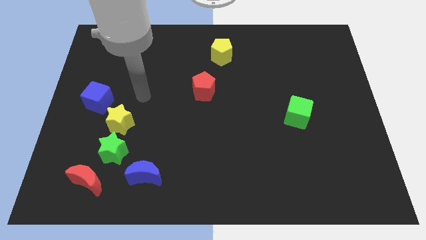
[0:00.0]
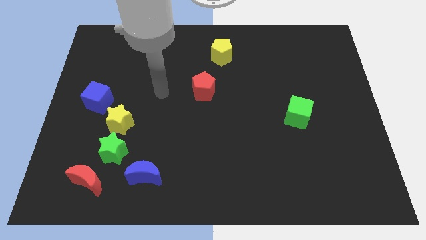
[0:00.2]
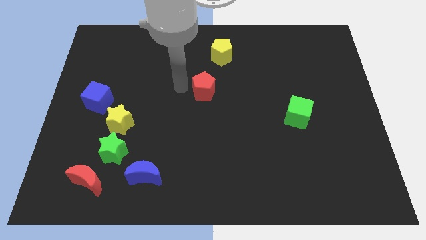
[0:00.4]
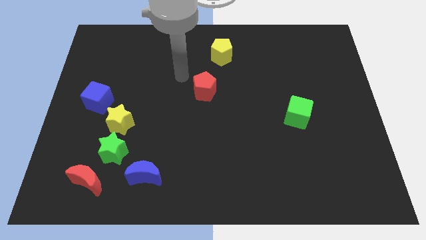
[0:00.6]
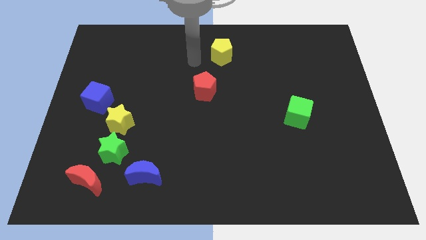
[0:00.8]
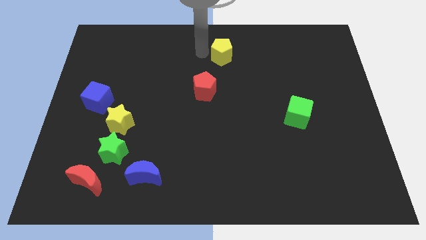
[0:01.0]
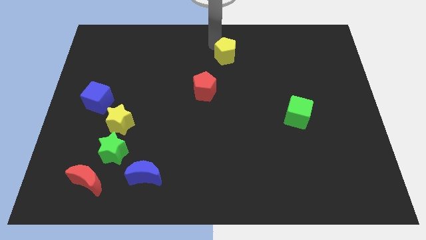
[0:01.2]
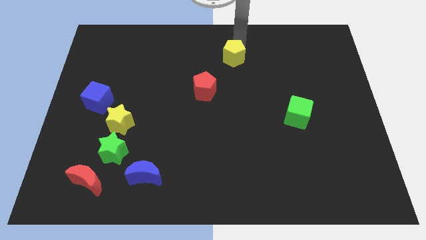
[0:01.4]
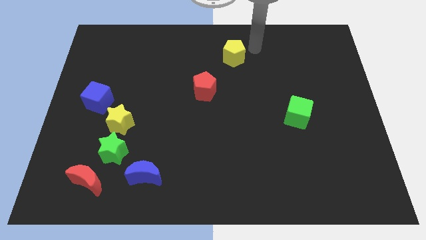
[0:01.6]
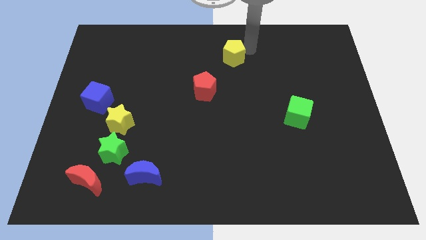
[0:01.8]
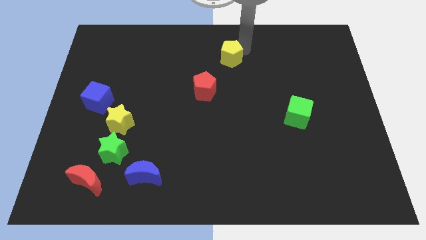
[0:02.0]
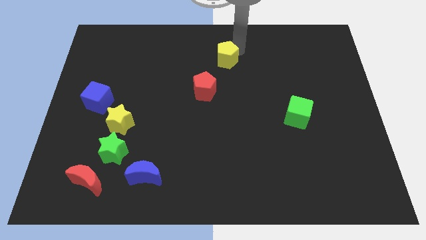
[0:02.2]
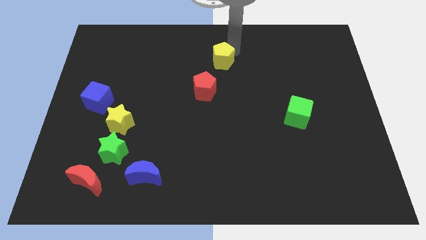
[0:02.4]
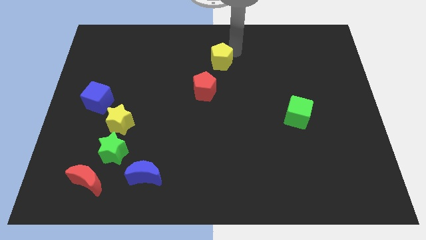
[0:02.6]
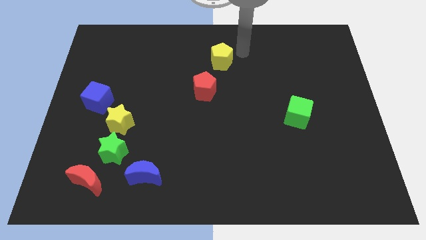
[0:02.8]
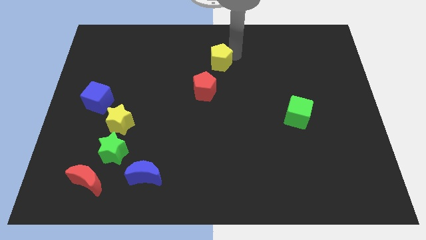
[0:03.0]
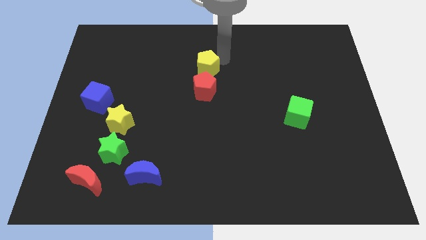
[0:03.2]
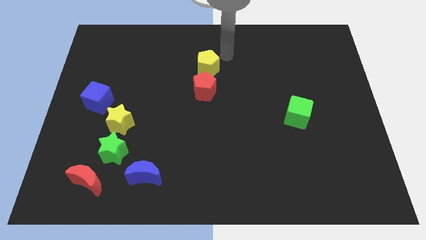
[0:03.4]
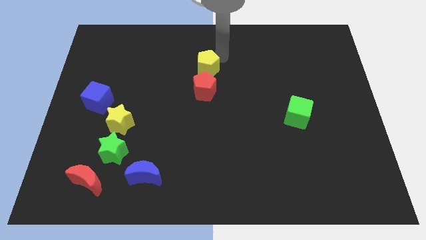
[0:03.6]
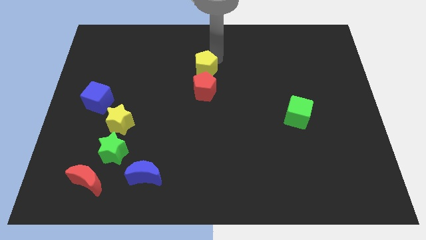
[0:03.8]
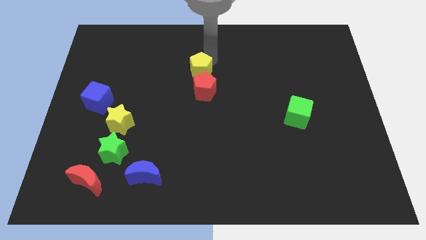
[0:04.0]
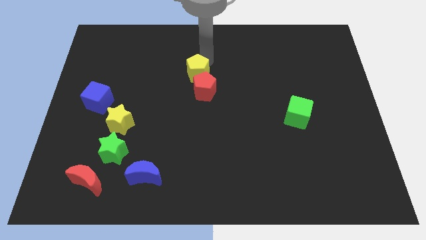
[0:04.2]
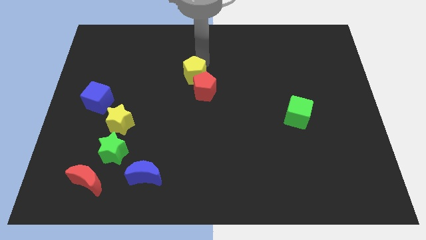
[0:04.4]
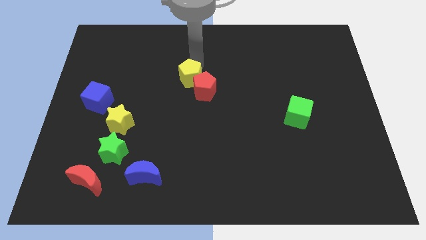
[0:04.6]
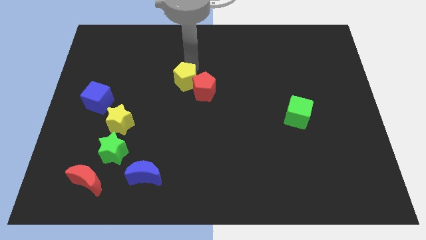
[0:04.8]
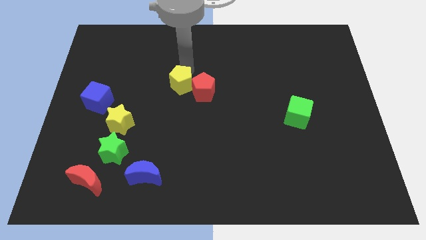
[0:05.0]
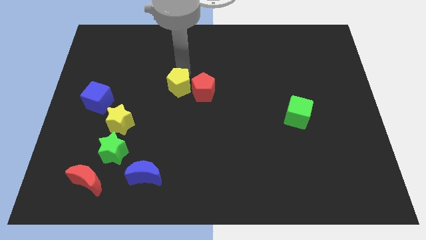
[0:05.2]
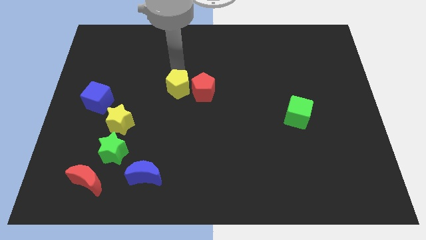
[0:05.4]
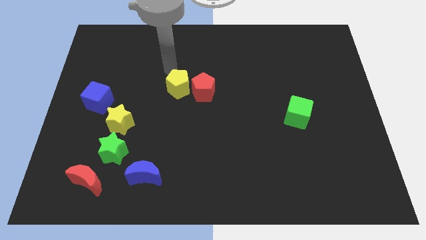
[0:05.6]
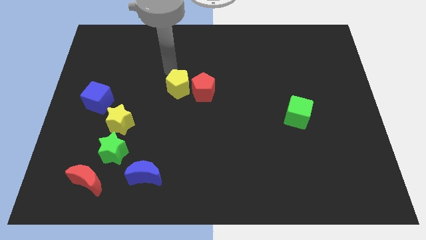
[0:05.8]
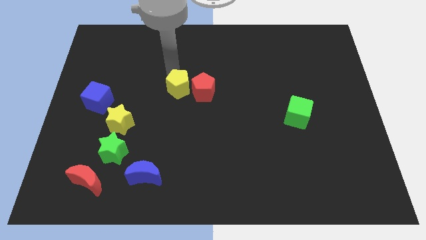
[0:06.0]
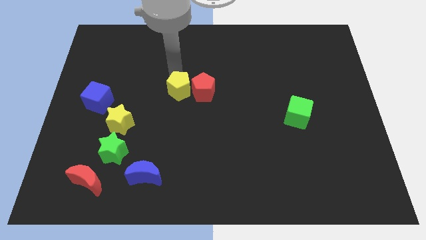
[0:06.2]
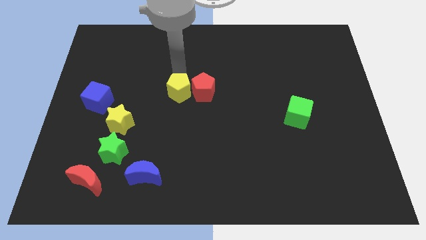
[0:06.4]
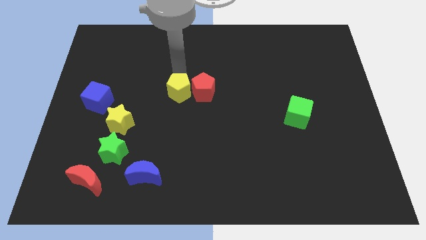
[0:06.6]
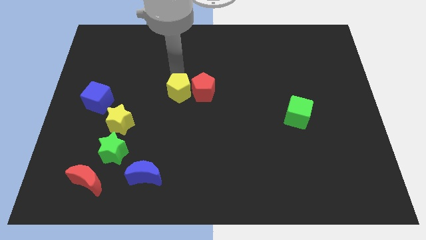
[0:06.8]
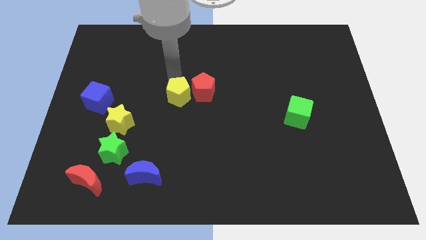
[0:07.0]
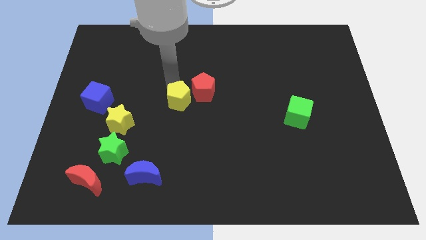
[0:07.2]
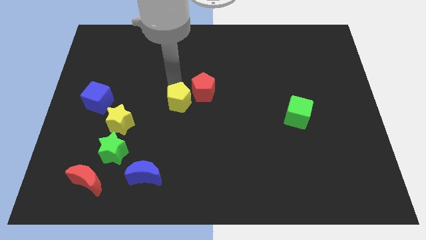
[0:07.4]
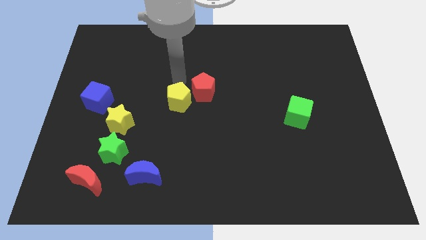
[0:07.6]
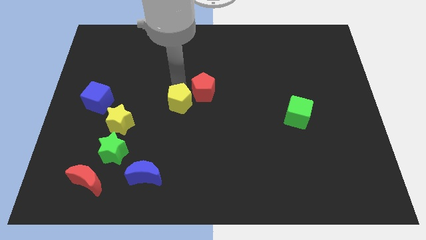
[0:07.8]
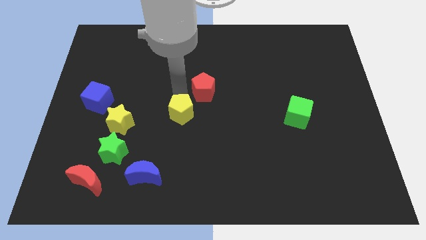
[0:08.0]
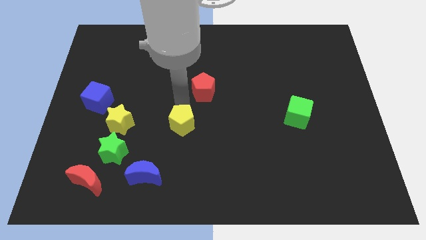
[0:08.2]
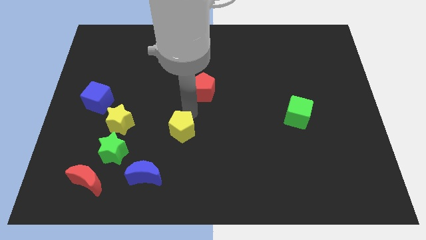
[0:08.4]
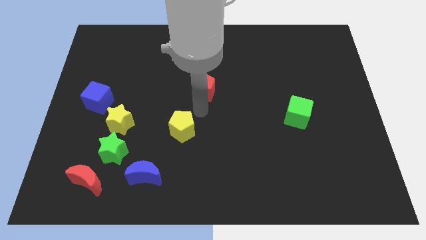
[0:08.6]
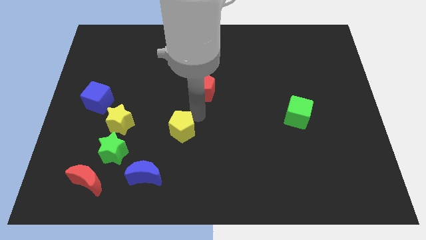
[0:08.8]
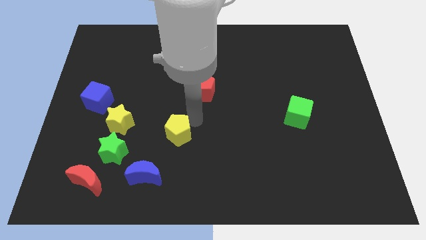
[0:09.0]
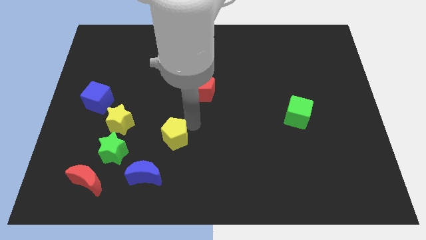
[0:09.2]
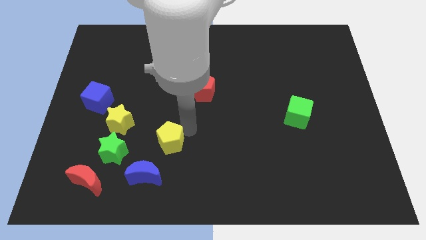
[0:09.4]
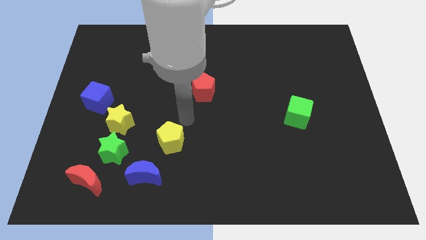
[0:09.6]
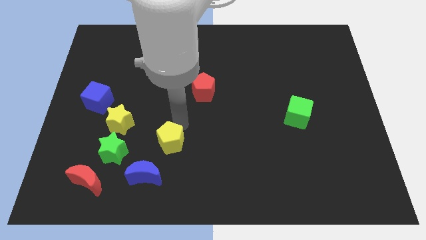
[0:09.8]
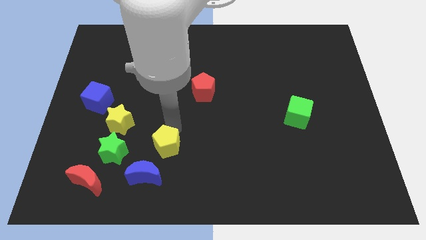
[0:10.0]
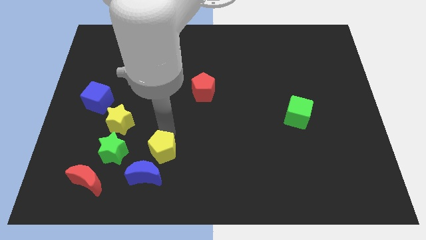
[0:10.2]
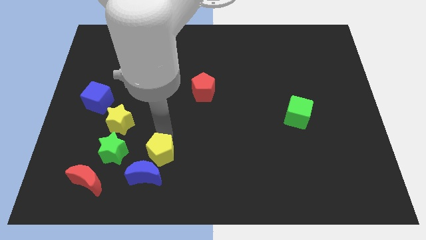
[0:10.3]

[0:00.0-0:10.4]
slide the yellow pentagon next to the blue moon

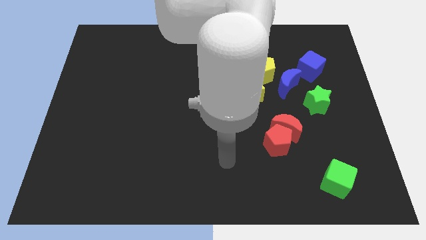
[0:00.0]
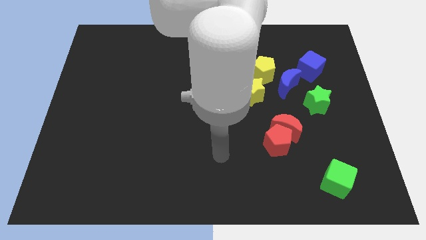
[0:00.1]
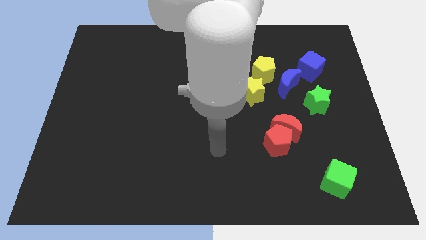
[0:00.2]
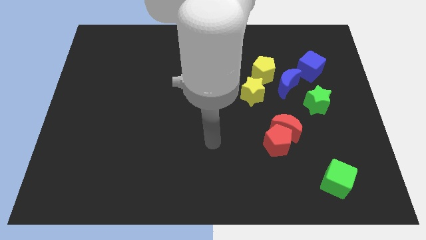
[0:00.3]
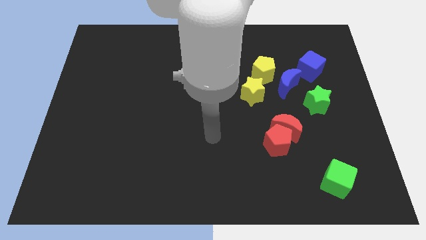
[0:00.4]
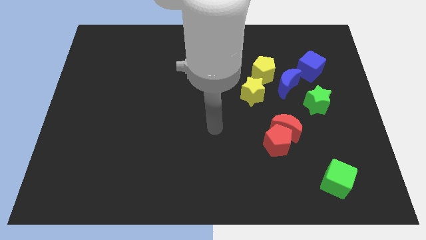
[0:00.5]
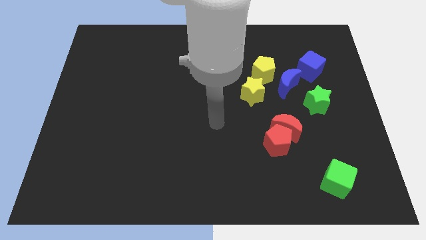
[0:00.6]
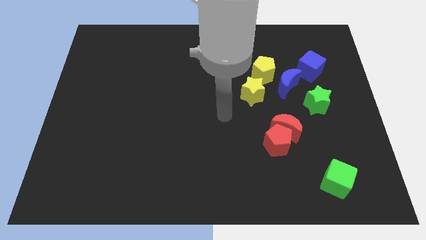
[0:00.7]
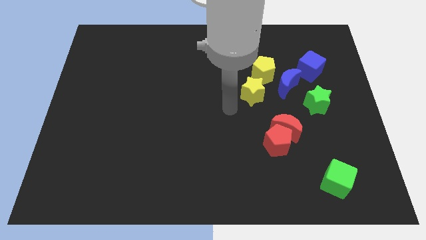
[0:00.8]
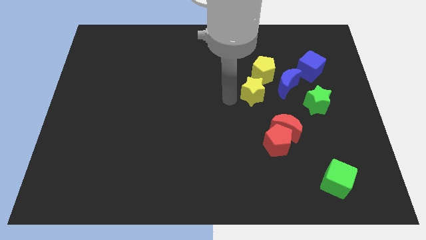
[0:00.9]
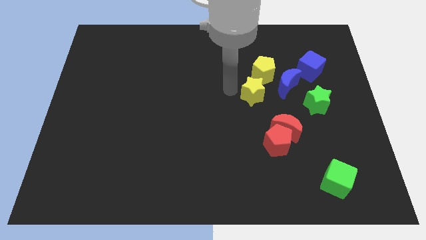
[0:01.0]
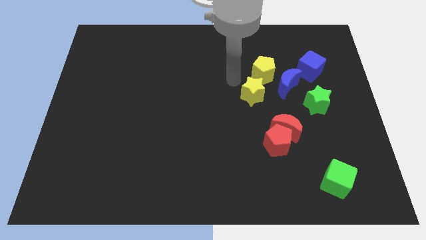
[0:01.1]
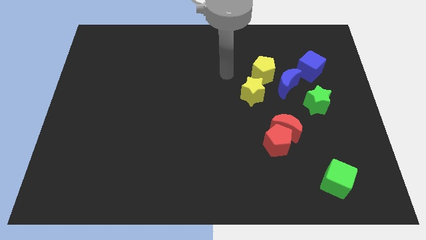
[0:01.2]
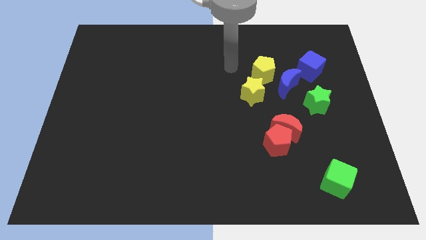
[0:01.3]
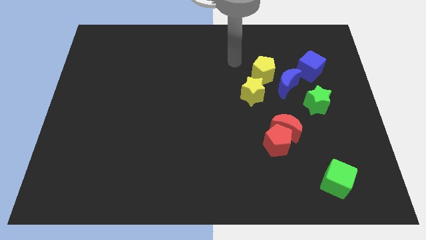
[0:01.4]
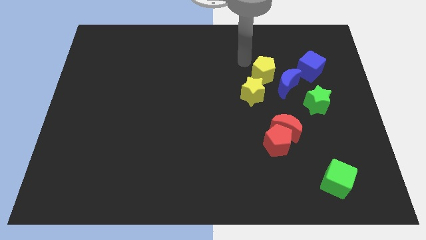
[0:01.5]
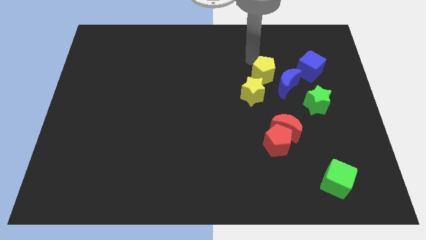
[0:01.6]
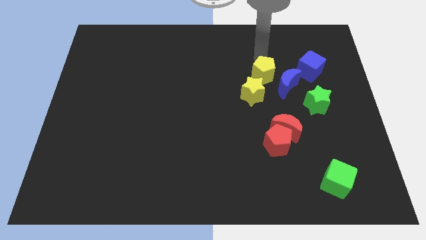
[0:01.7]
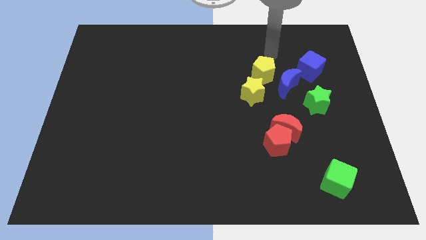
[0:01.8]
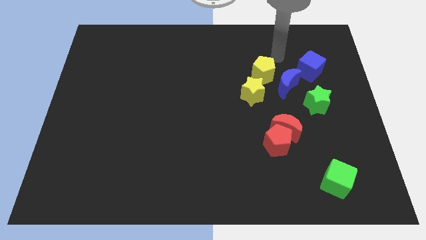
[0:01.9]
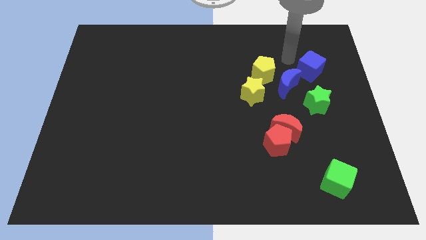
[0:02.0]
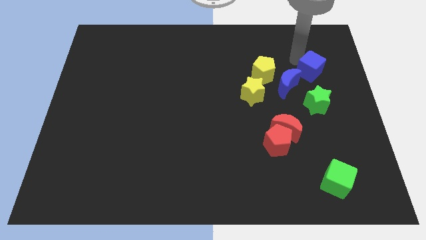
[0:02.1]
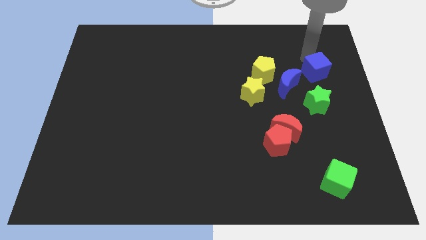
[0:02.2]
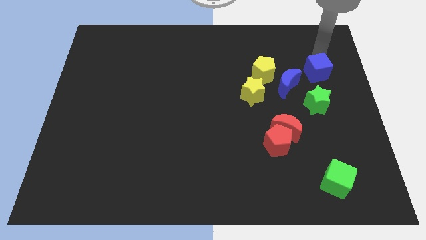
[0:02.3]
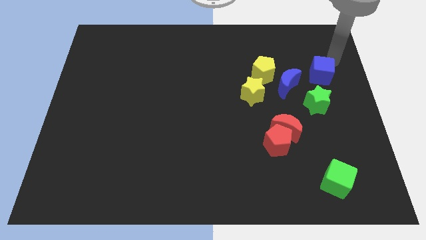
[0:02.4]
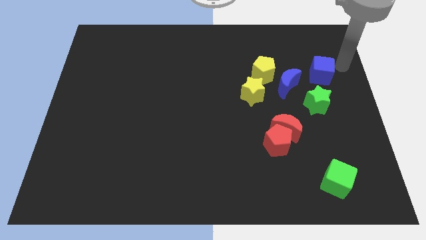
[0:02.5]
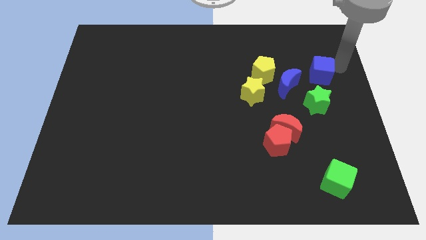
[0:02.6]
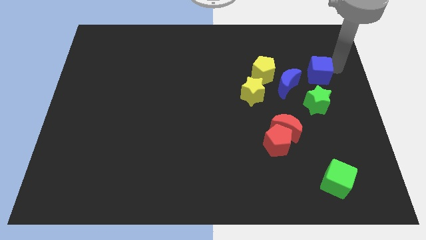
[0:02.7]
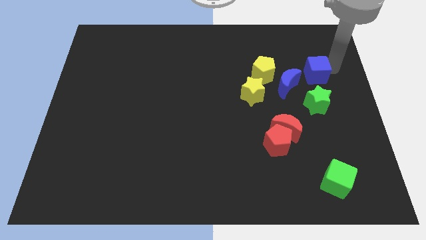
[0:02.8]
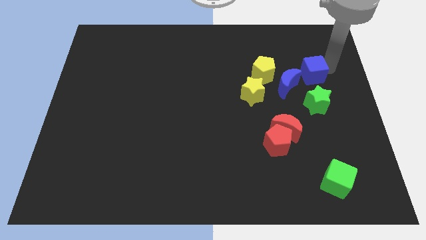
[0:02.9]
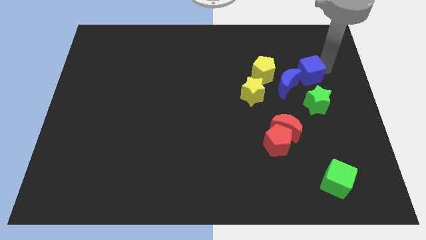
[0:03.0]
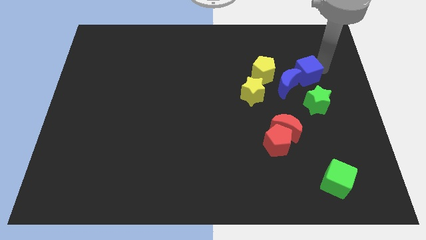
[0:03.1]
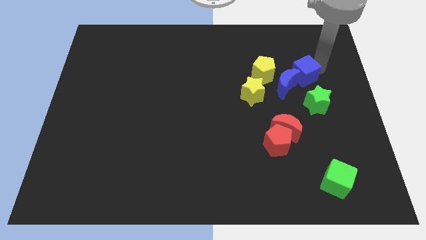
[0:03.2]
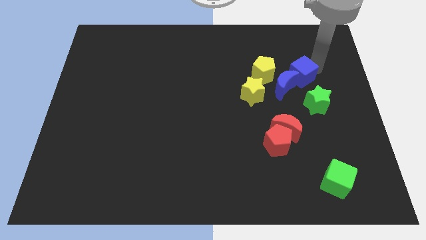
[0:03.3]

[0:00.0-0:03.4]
move the blue cube next to the blue moon
